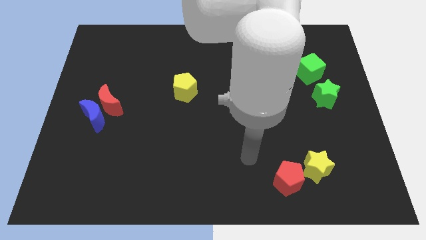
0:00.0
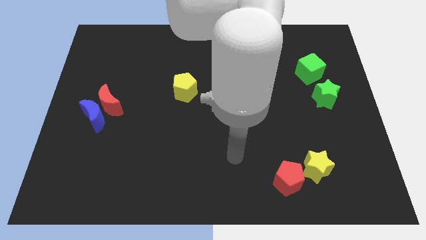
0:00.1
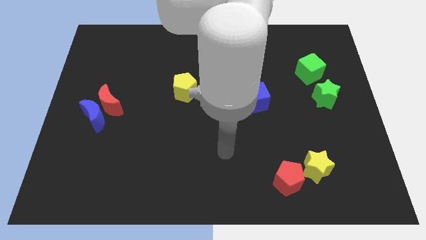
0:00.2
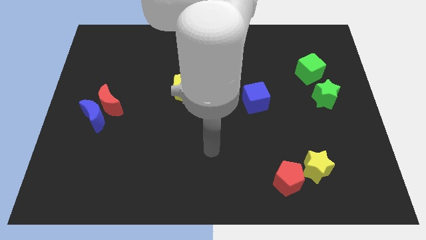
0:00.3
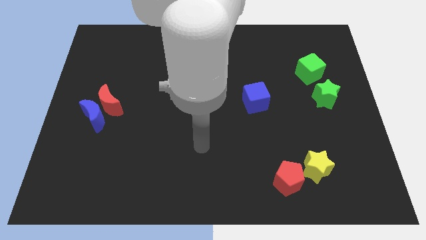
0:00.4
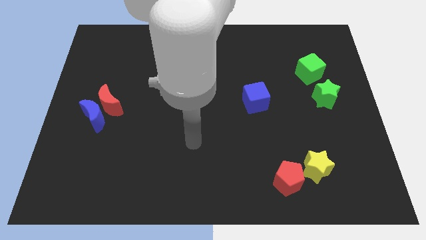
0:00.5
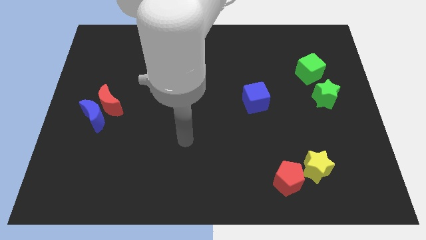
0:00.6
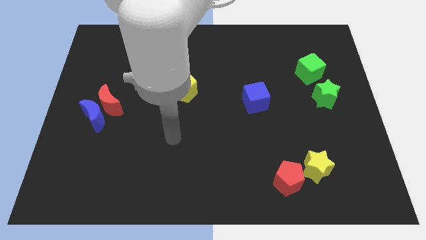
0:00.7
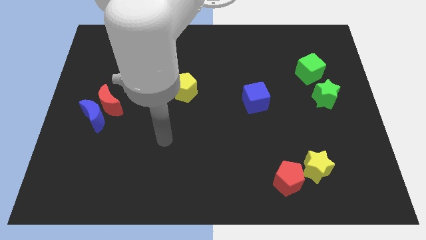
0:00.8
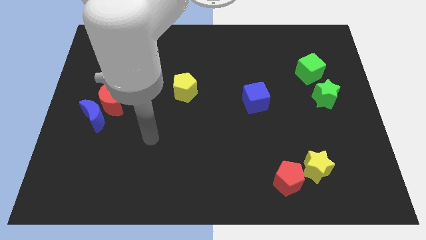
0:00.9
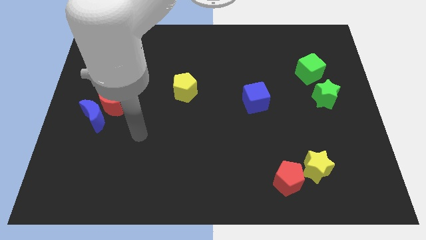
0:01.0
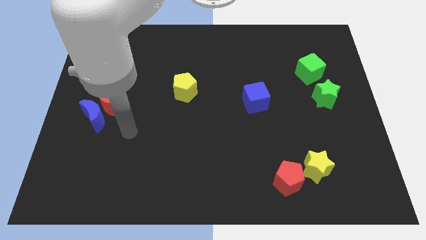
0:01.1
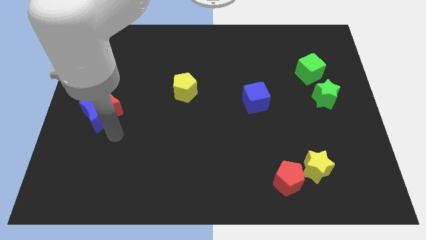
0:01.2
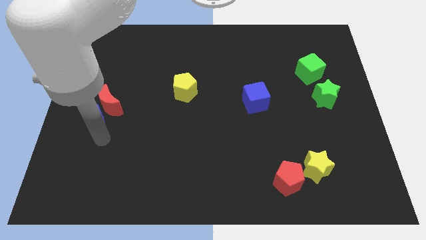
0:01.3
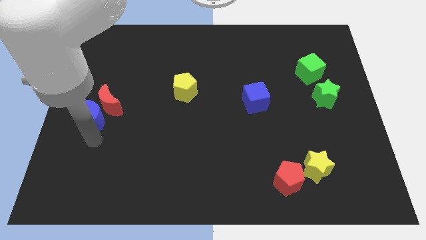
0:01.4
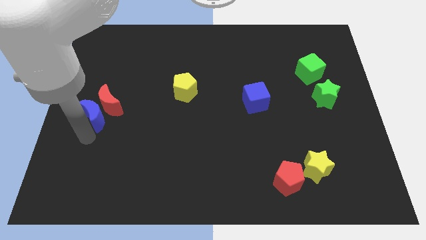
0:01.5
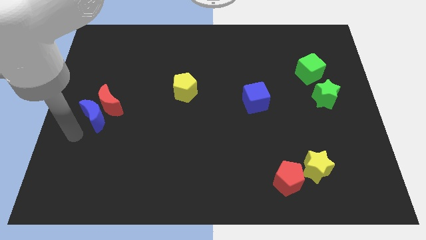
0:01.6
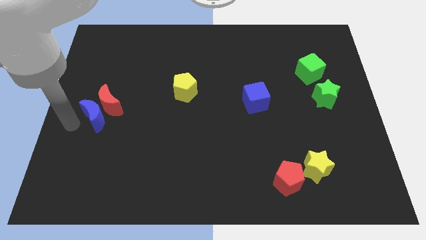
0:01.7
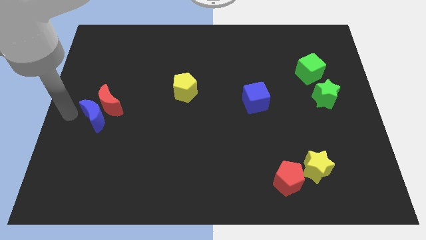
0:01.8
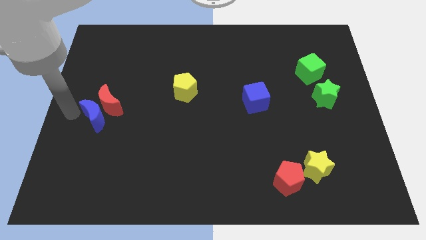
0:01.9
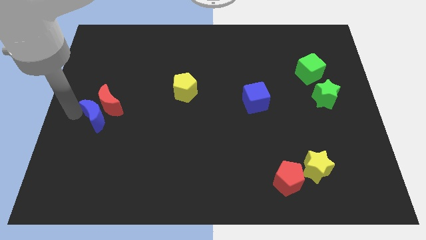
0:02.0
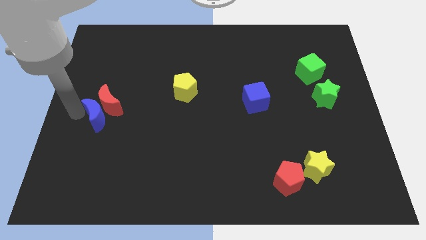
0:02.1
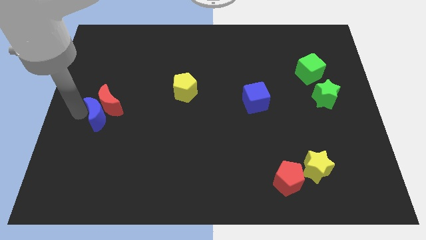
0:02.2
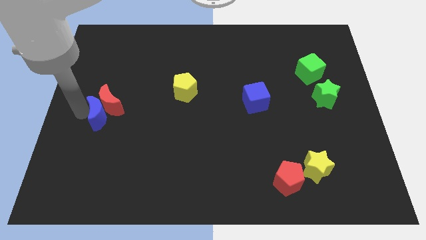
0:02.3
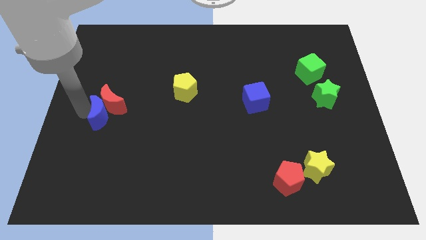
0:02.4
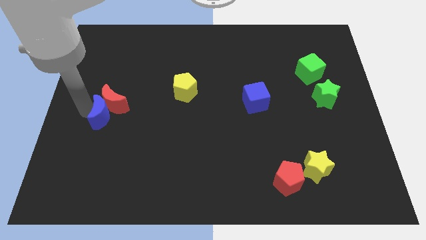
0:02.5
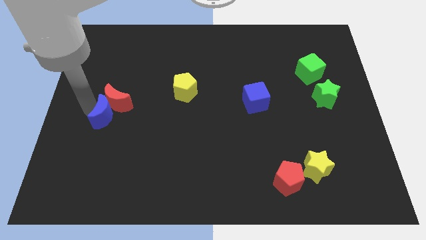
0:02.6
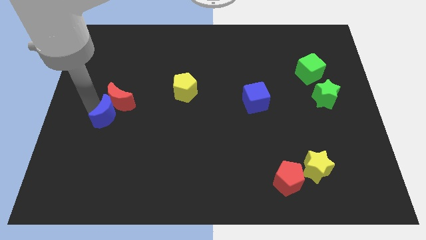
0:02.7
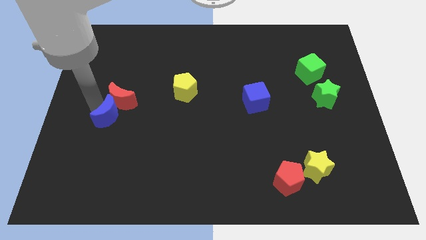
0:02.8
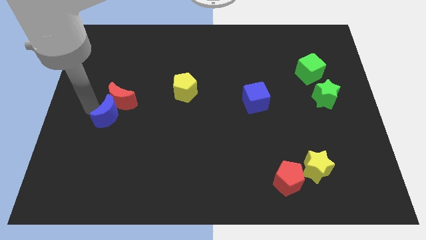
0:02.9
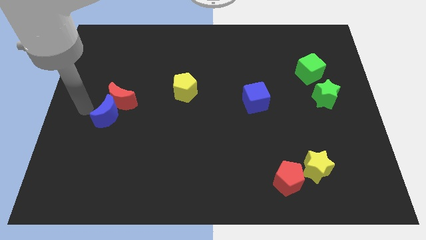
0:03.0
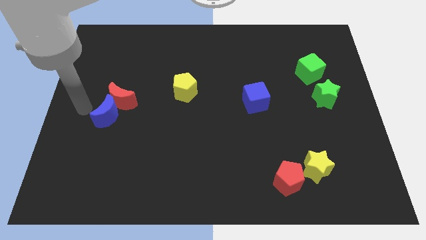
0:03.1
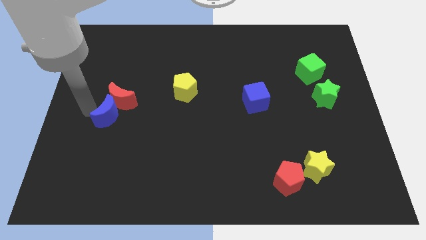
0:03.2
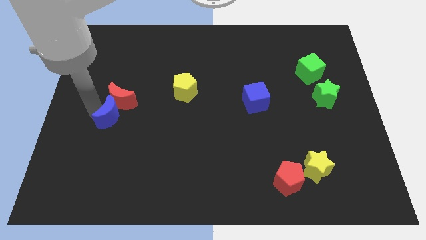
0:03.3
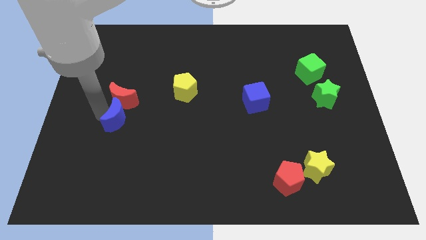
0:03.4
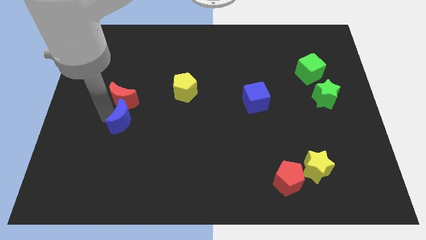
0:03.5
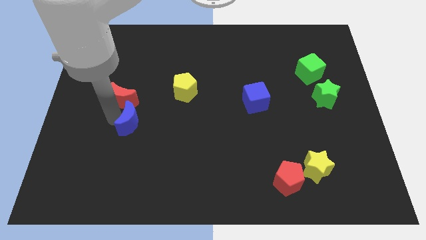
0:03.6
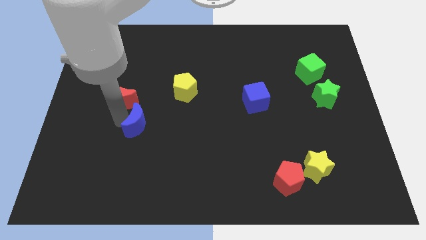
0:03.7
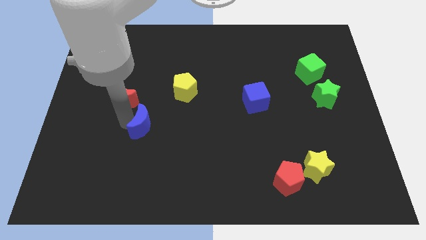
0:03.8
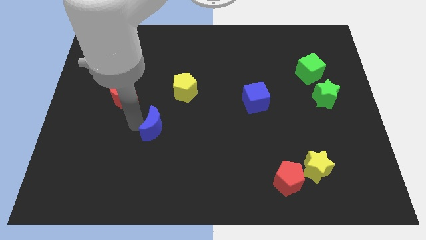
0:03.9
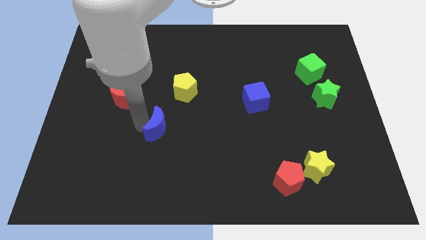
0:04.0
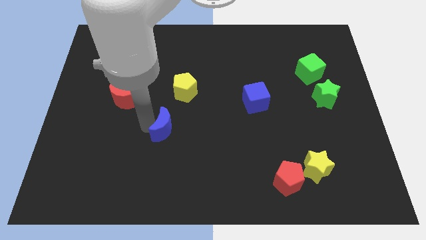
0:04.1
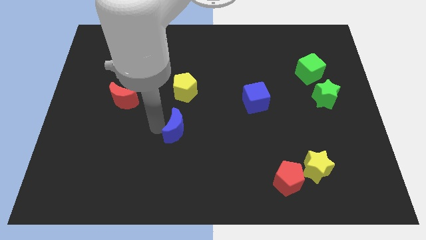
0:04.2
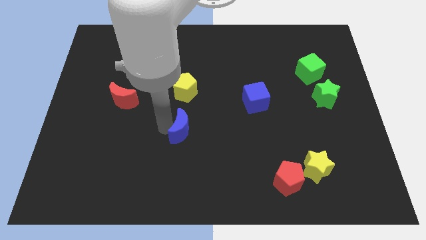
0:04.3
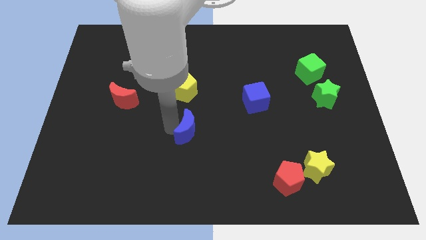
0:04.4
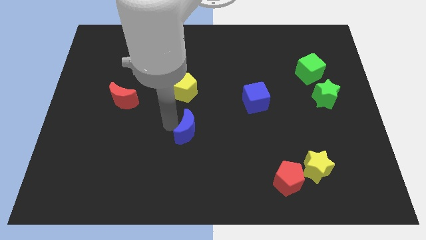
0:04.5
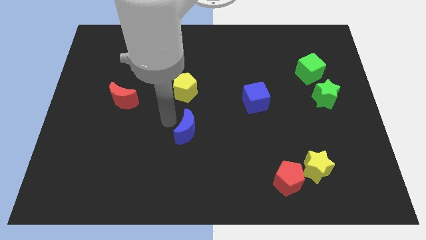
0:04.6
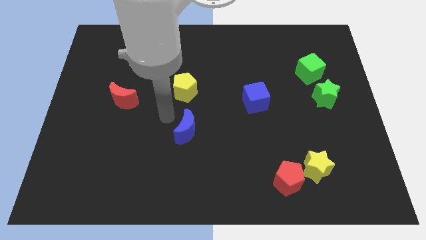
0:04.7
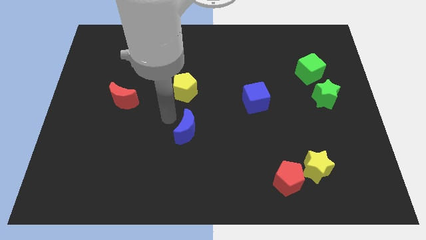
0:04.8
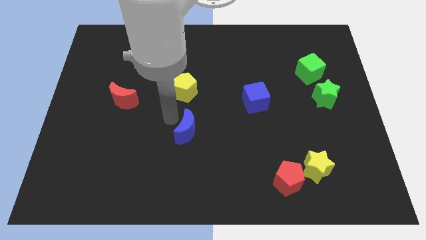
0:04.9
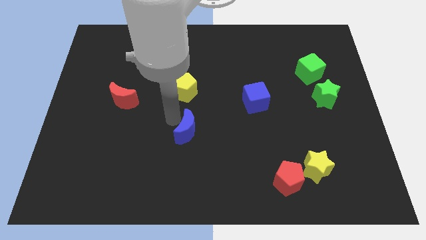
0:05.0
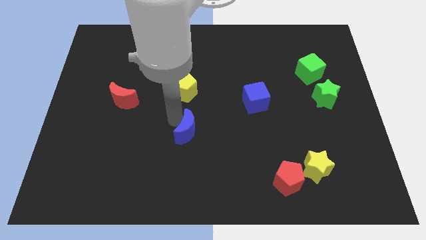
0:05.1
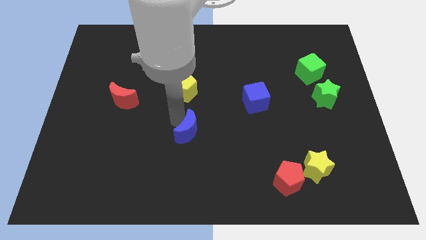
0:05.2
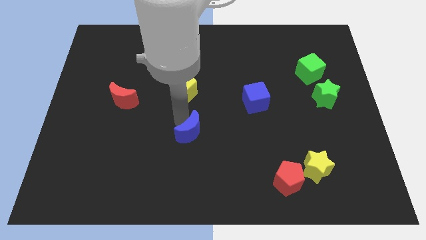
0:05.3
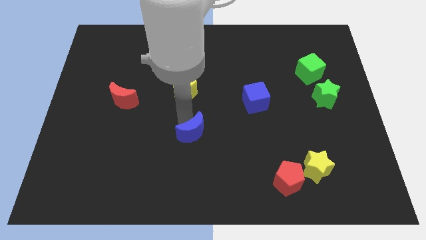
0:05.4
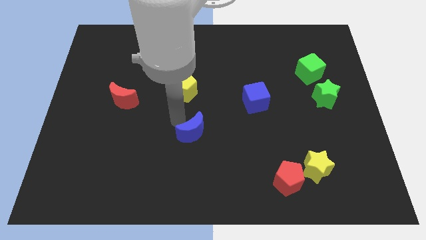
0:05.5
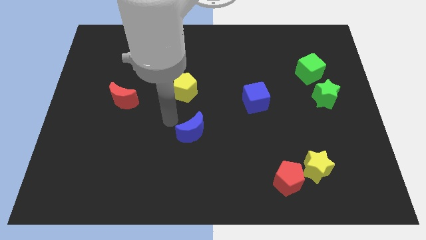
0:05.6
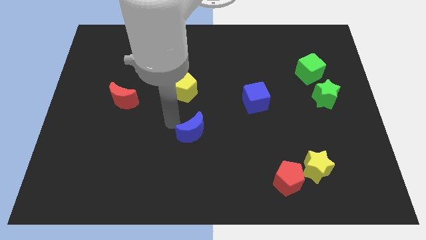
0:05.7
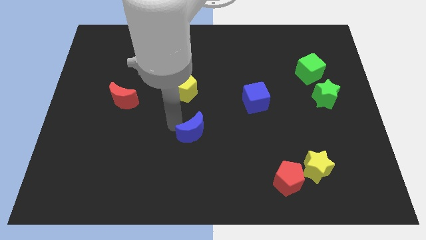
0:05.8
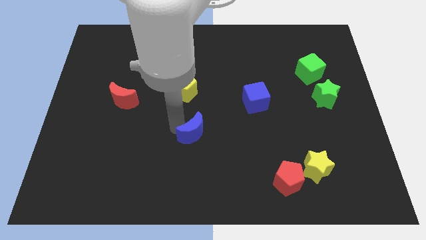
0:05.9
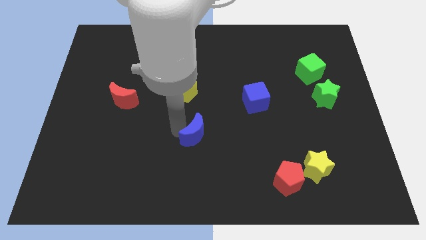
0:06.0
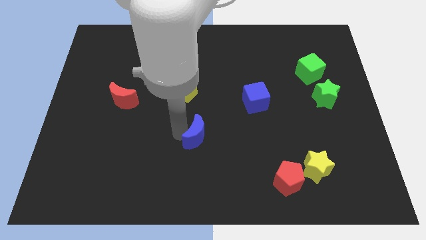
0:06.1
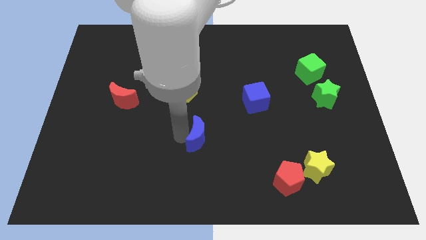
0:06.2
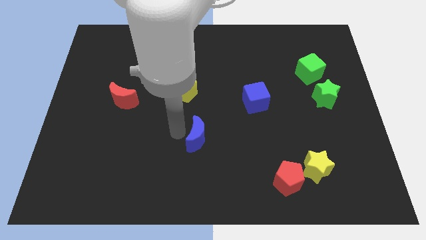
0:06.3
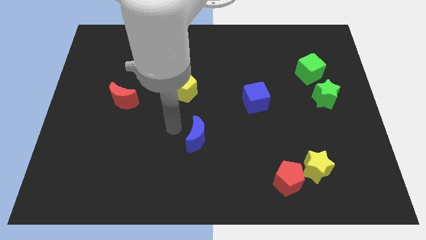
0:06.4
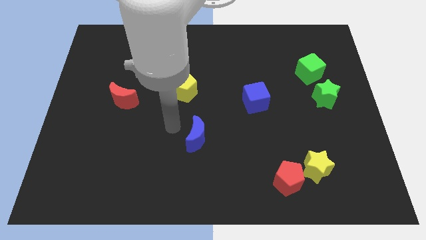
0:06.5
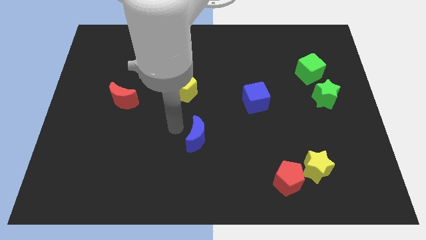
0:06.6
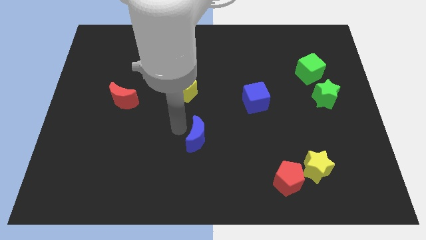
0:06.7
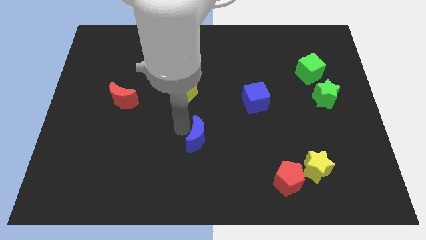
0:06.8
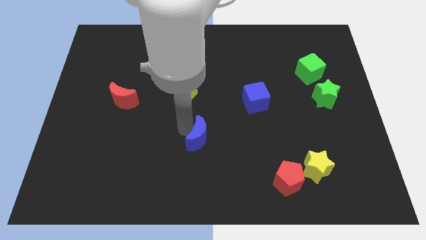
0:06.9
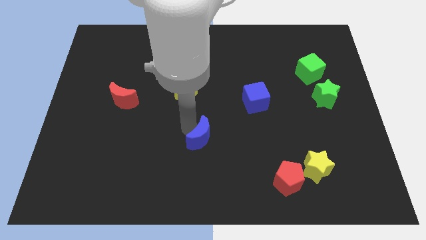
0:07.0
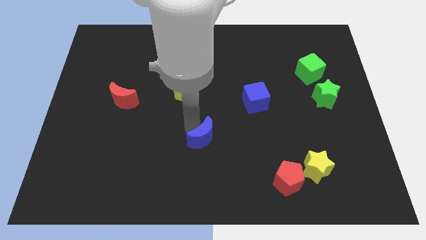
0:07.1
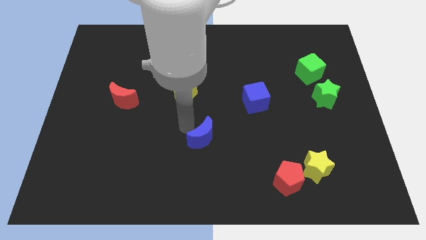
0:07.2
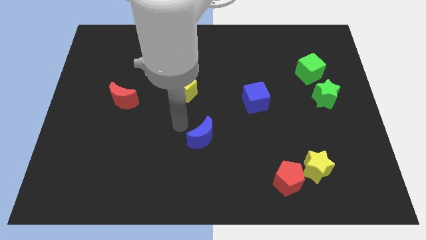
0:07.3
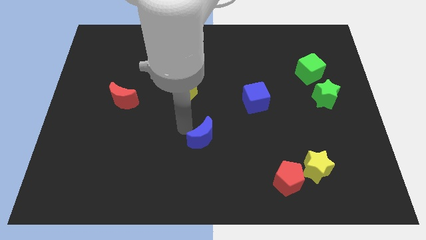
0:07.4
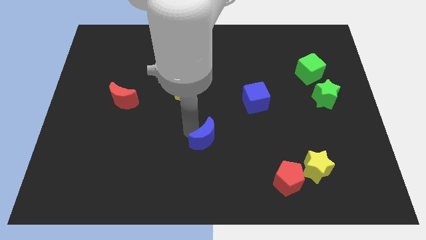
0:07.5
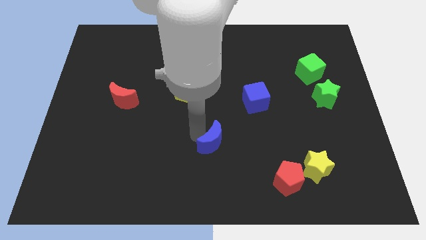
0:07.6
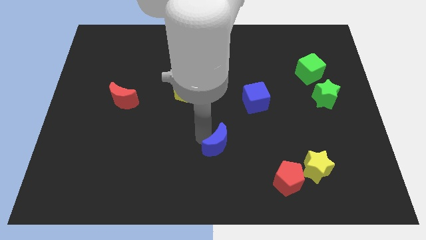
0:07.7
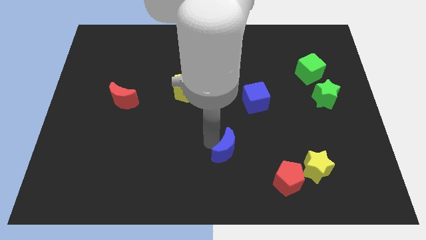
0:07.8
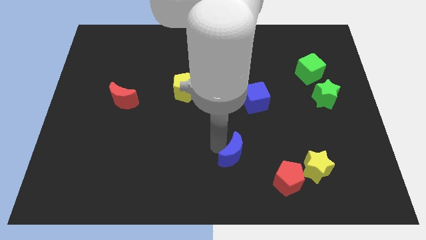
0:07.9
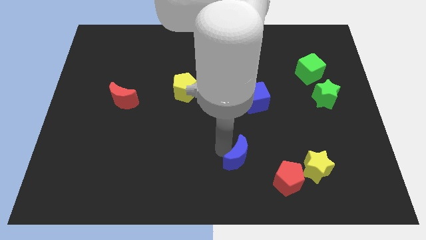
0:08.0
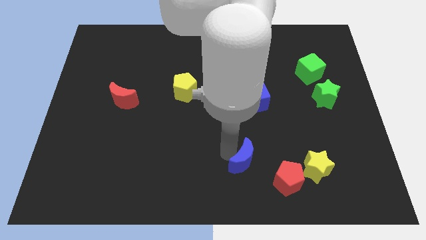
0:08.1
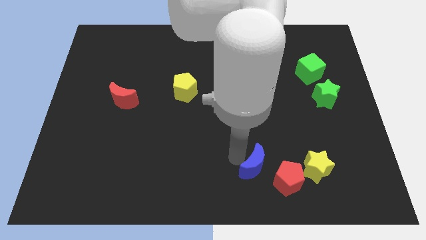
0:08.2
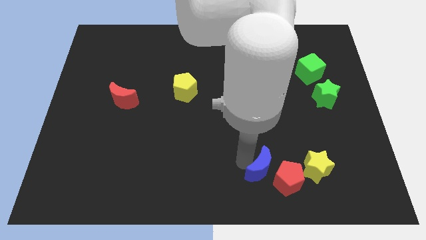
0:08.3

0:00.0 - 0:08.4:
put the blue moon towards the red pentagon
